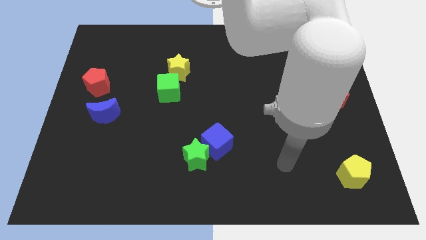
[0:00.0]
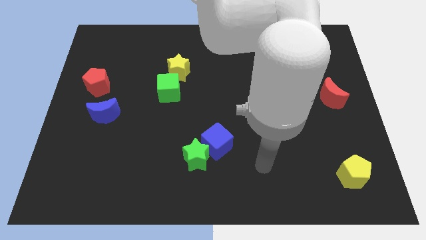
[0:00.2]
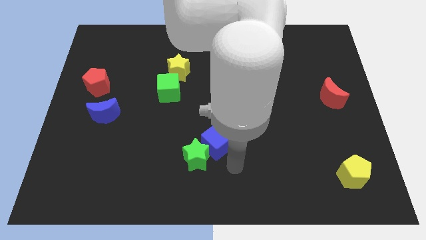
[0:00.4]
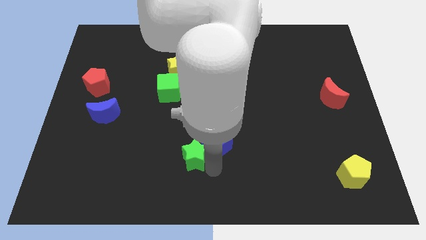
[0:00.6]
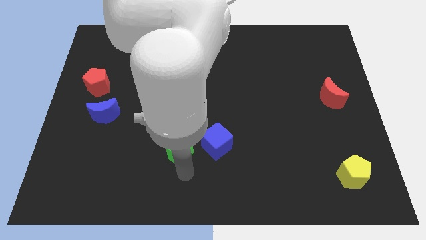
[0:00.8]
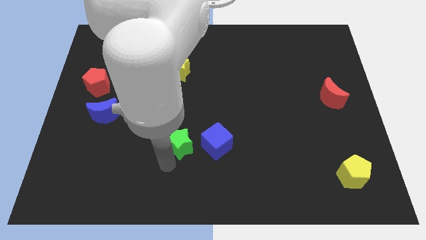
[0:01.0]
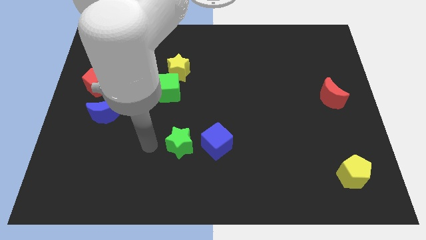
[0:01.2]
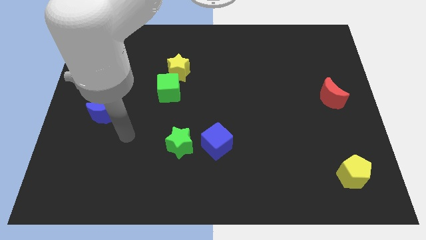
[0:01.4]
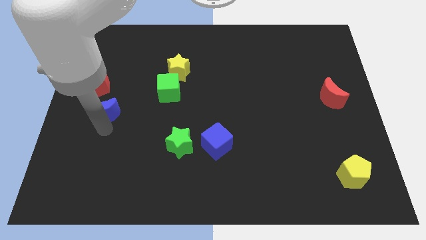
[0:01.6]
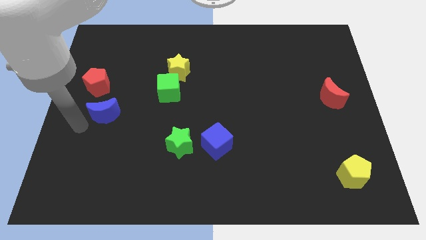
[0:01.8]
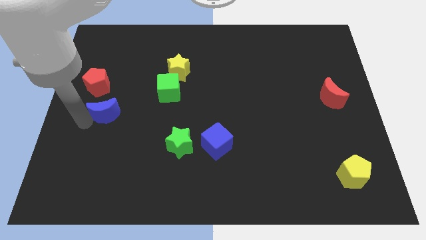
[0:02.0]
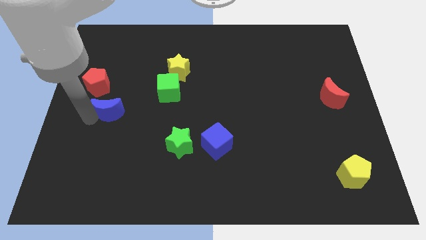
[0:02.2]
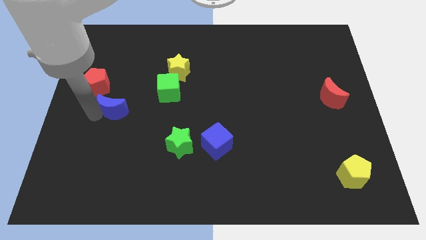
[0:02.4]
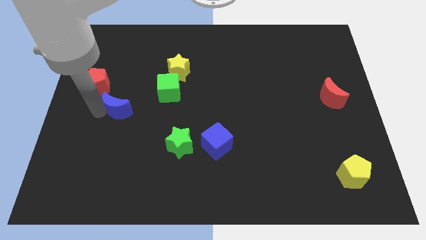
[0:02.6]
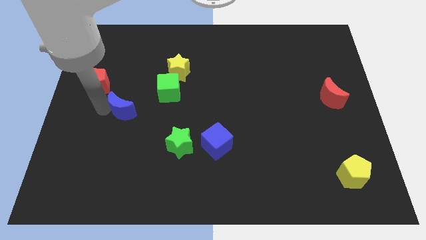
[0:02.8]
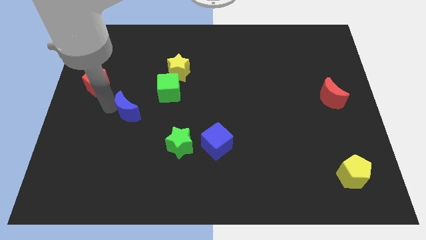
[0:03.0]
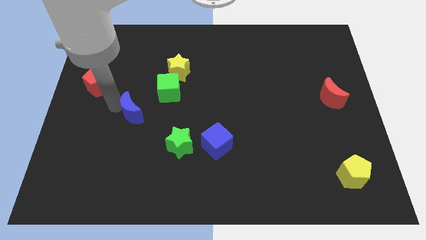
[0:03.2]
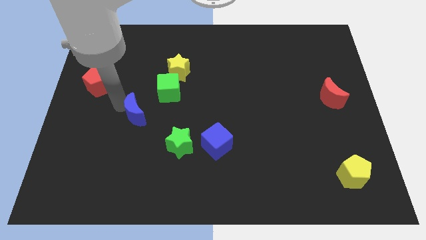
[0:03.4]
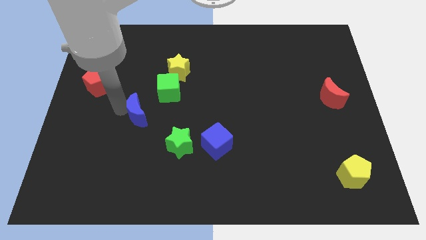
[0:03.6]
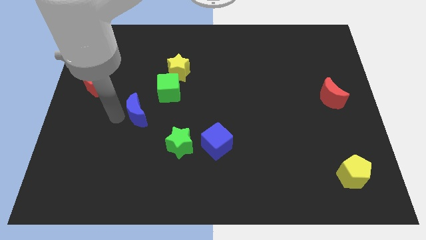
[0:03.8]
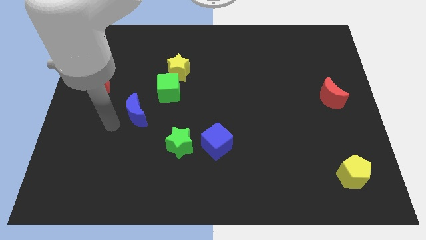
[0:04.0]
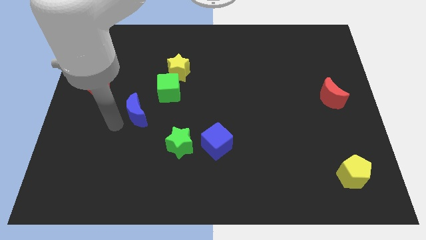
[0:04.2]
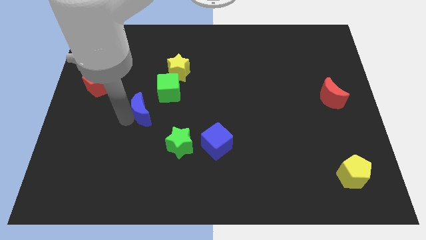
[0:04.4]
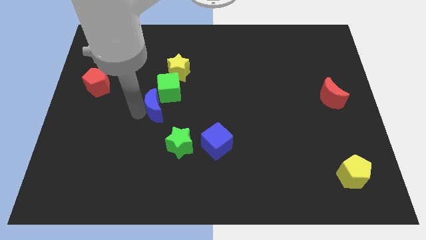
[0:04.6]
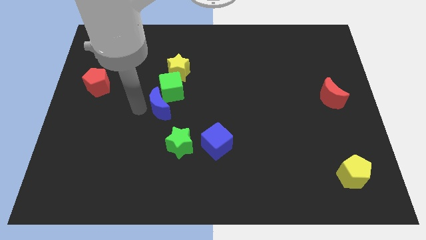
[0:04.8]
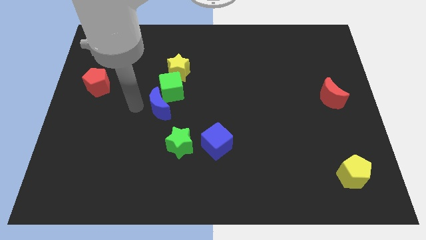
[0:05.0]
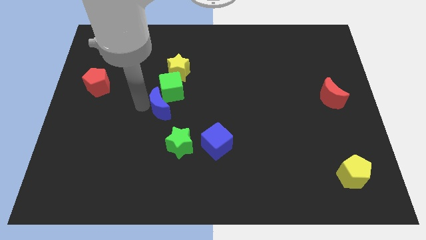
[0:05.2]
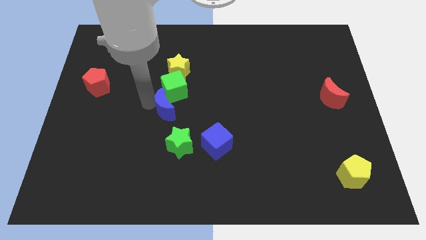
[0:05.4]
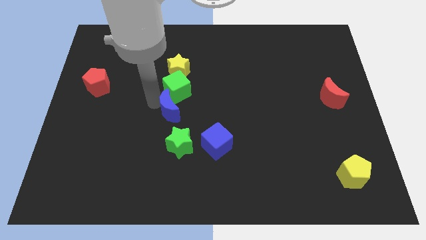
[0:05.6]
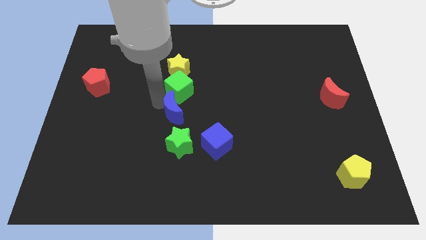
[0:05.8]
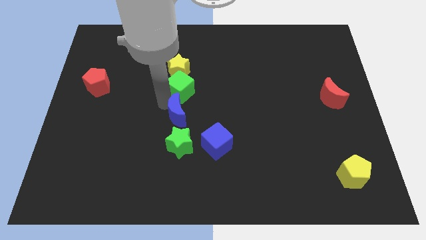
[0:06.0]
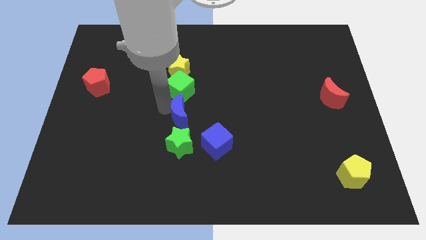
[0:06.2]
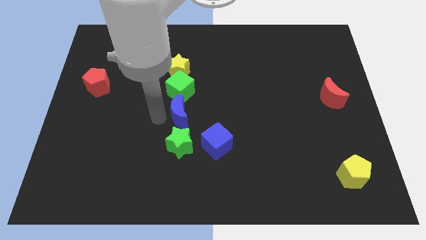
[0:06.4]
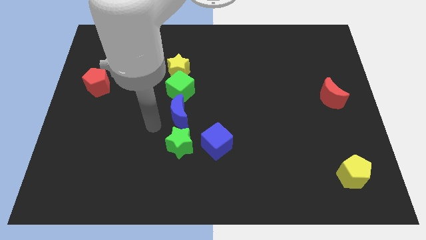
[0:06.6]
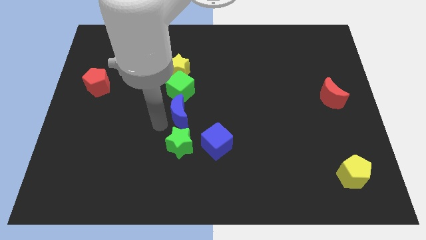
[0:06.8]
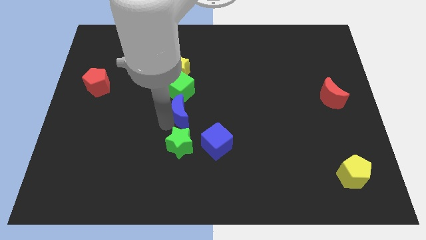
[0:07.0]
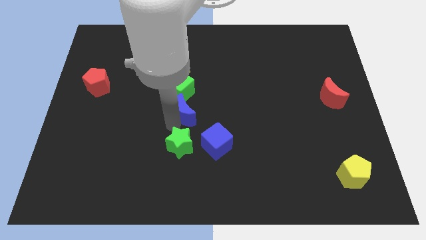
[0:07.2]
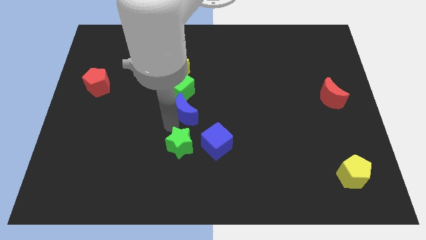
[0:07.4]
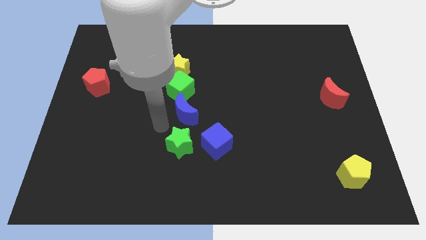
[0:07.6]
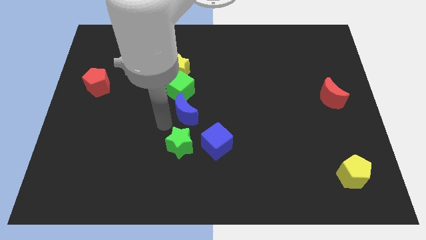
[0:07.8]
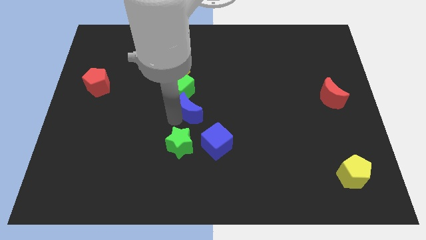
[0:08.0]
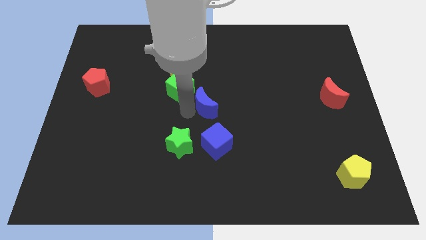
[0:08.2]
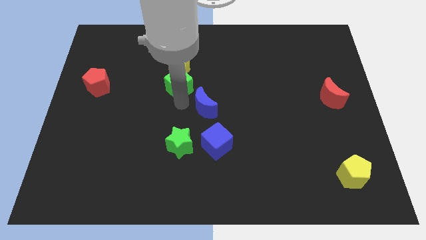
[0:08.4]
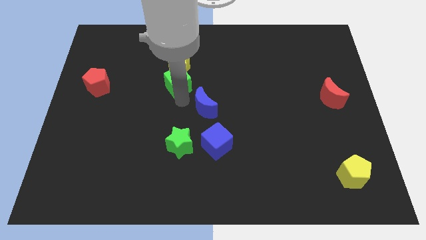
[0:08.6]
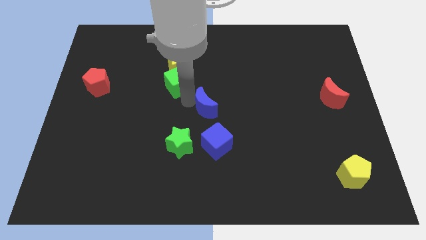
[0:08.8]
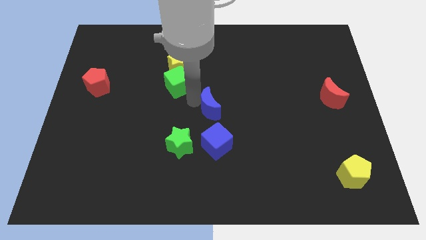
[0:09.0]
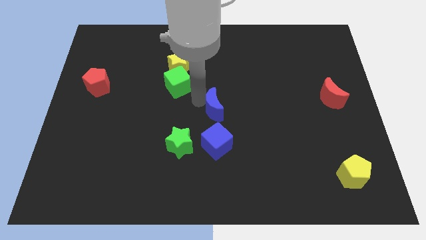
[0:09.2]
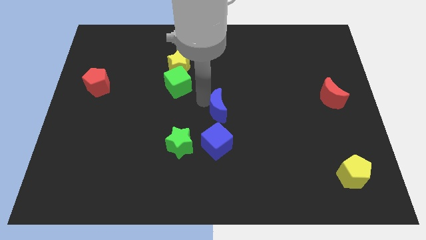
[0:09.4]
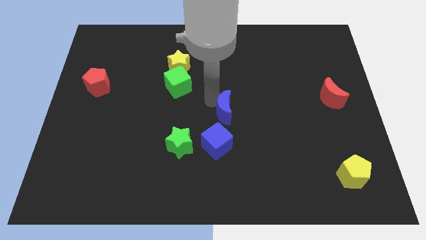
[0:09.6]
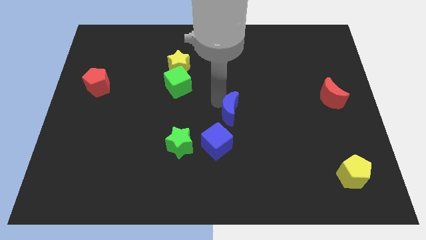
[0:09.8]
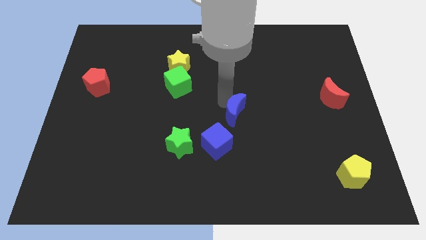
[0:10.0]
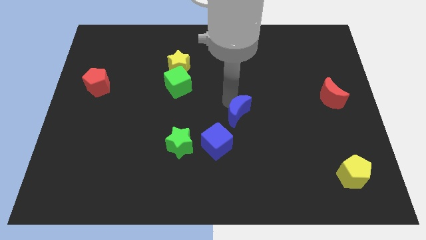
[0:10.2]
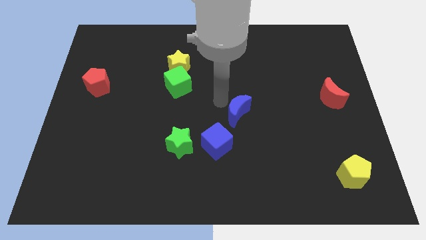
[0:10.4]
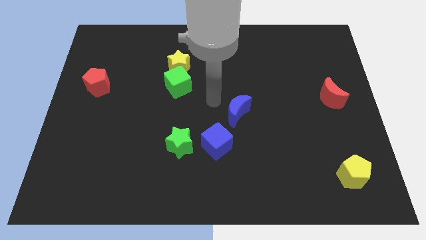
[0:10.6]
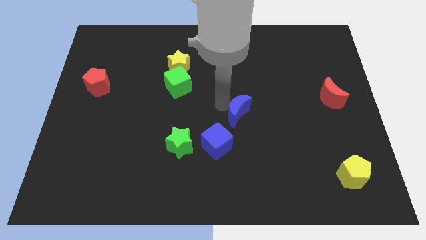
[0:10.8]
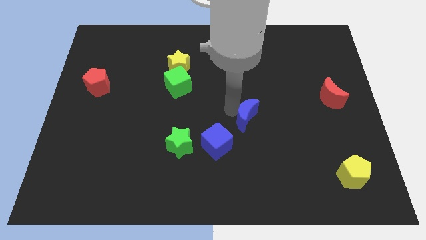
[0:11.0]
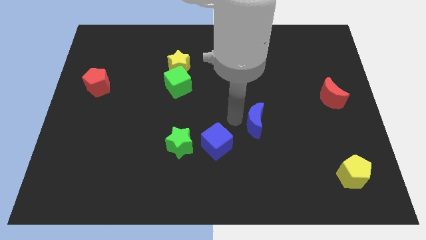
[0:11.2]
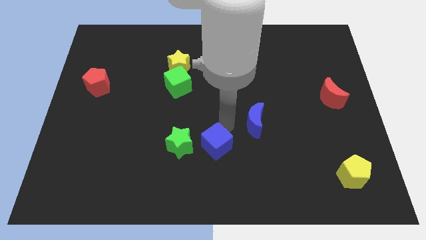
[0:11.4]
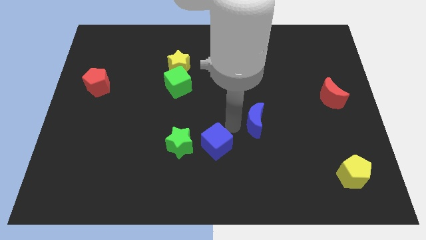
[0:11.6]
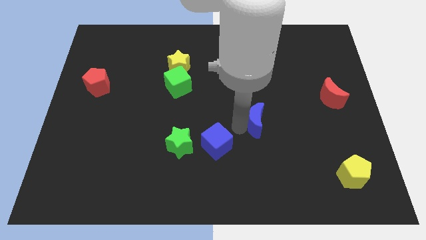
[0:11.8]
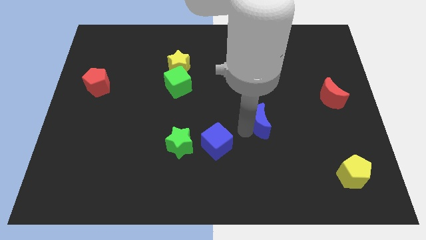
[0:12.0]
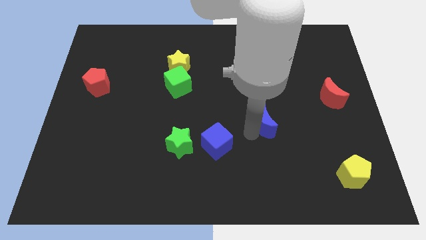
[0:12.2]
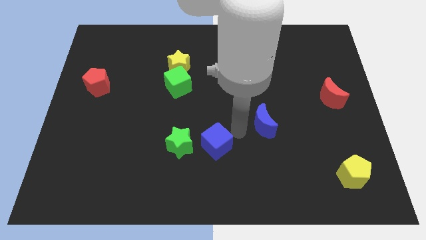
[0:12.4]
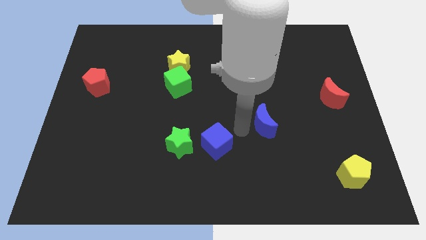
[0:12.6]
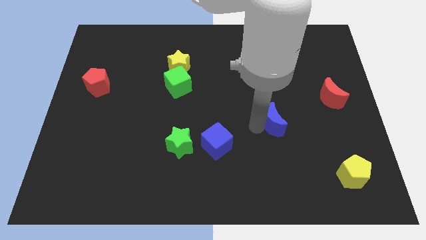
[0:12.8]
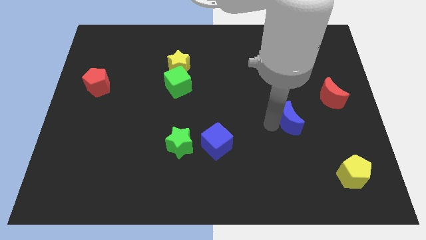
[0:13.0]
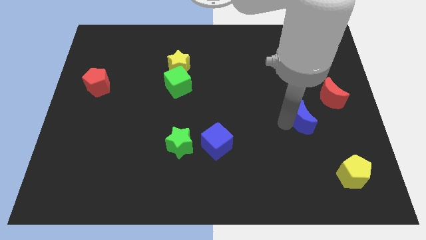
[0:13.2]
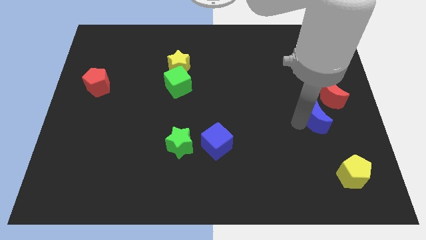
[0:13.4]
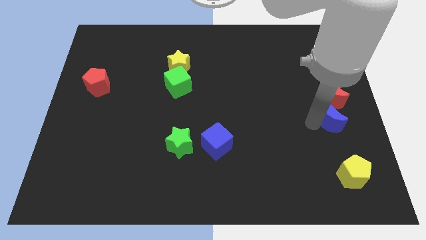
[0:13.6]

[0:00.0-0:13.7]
put the blue moon to the center right

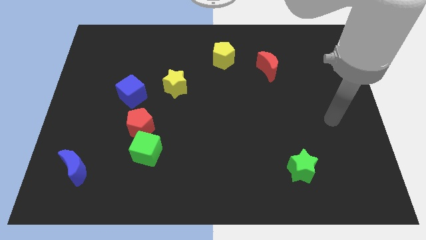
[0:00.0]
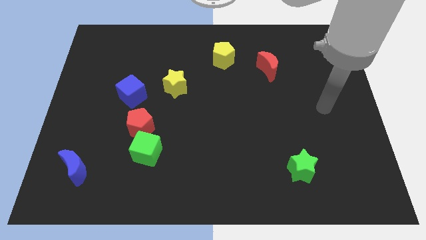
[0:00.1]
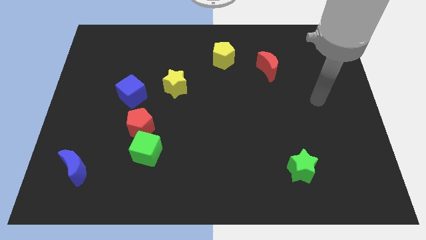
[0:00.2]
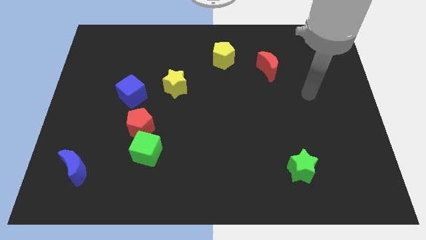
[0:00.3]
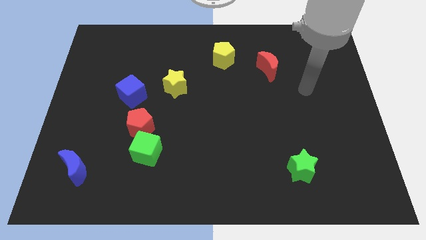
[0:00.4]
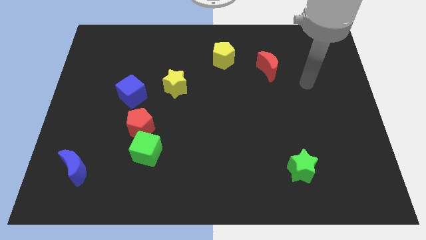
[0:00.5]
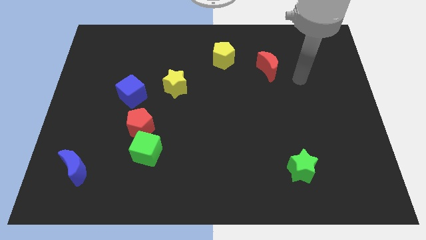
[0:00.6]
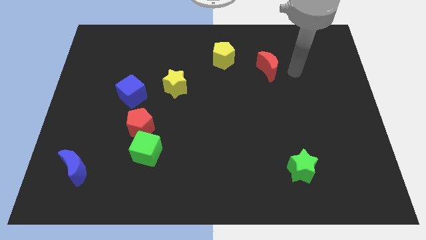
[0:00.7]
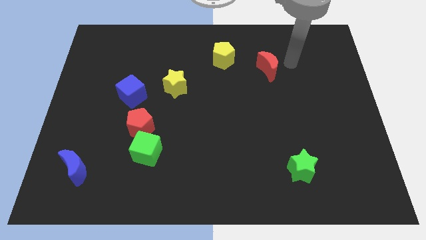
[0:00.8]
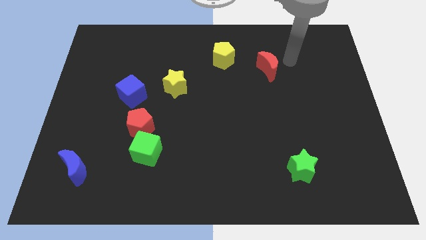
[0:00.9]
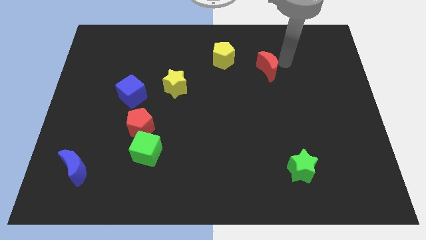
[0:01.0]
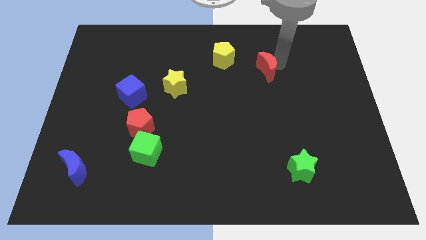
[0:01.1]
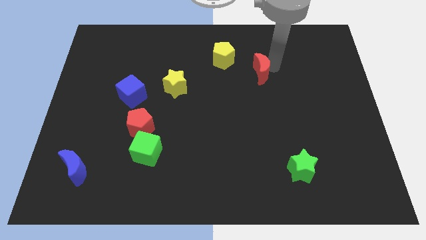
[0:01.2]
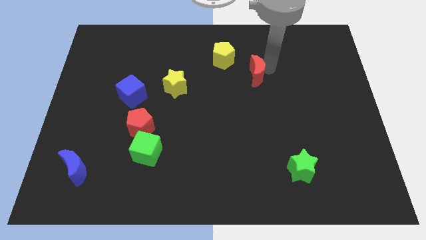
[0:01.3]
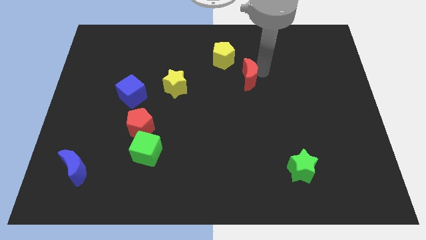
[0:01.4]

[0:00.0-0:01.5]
push the red moon to the middle of the board
